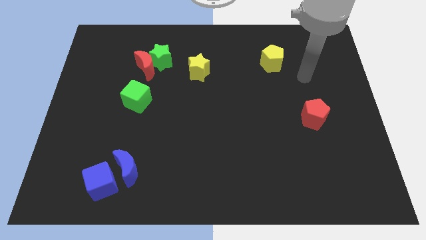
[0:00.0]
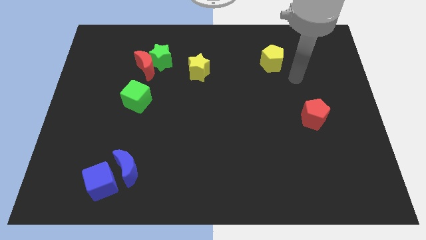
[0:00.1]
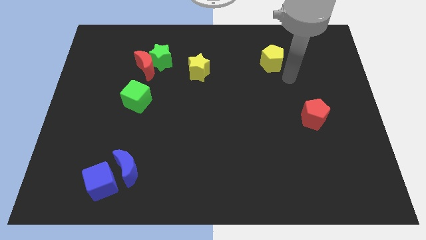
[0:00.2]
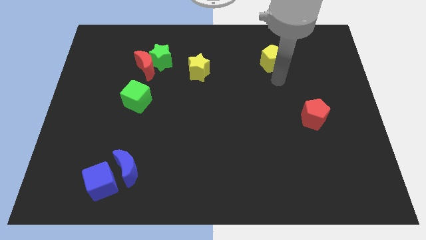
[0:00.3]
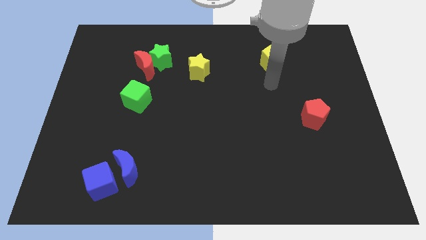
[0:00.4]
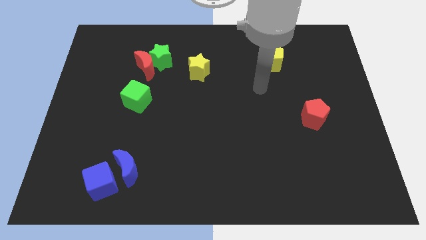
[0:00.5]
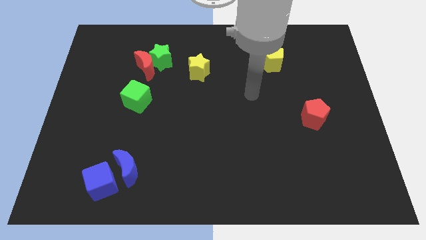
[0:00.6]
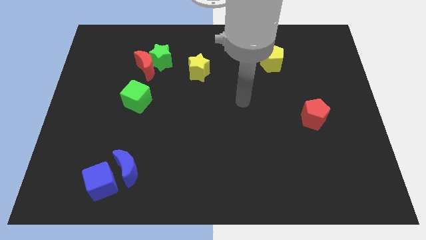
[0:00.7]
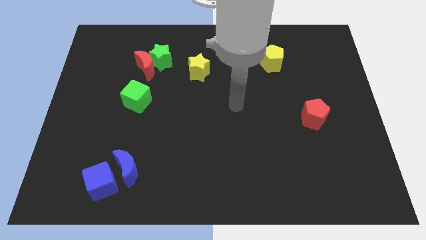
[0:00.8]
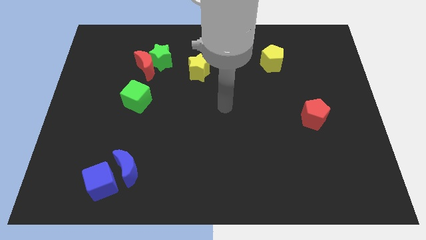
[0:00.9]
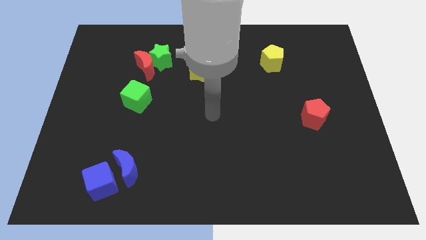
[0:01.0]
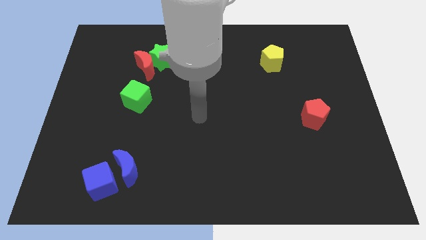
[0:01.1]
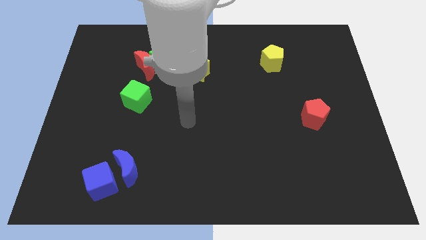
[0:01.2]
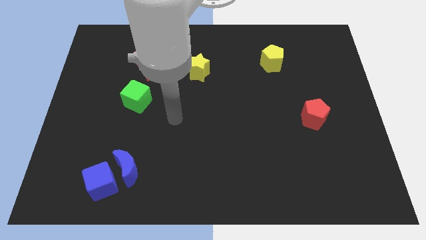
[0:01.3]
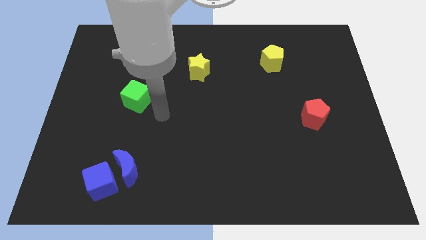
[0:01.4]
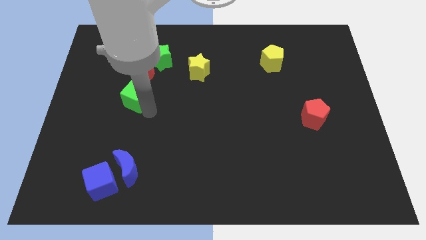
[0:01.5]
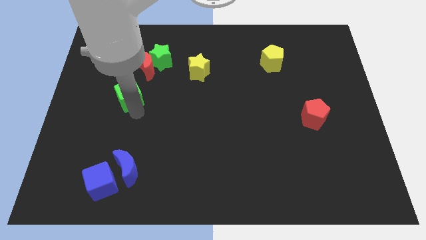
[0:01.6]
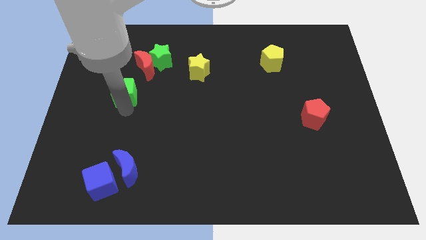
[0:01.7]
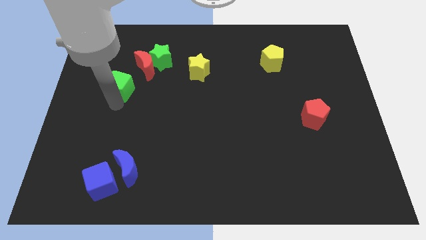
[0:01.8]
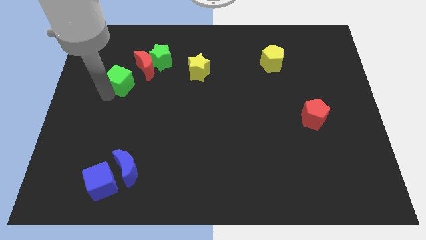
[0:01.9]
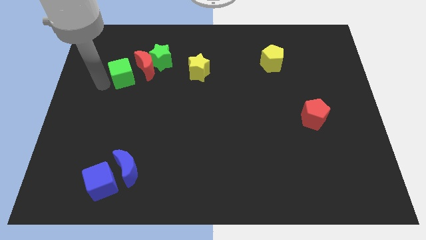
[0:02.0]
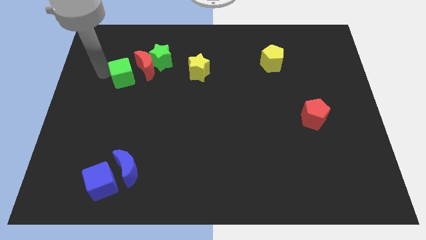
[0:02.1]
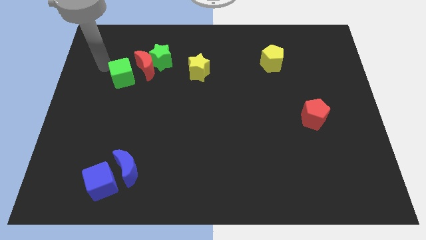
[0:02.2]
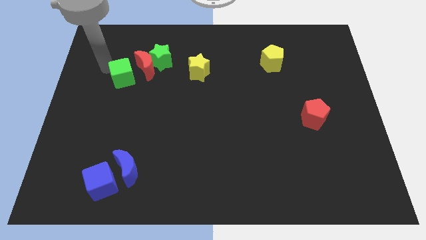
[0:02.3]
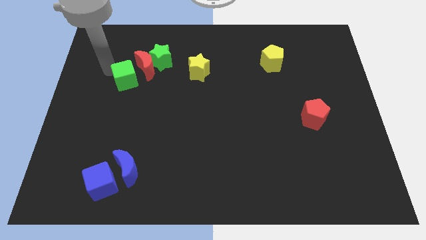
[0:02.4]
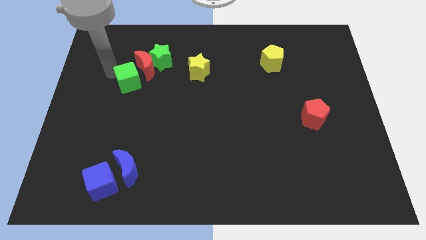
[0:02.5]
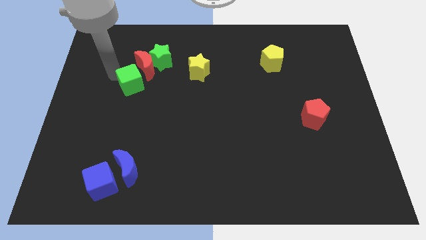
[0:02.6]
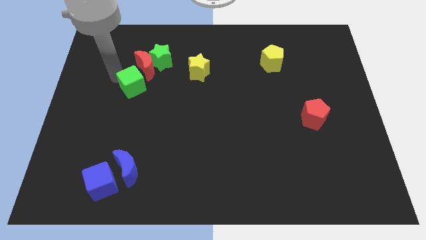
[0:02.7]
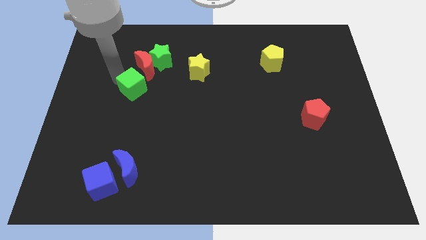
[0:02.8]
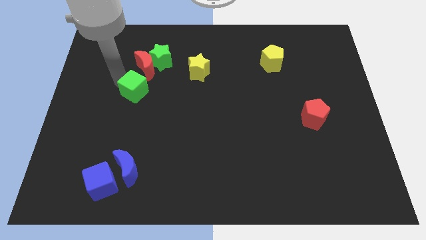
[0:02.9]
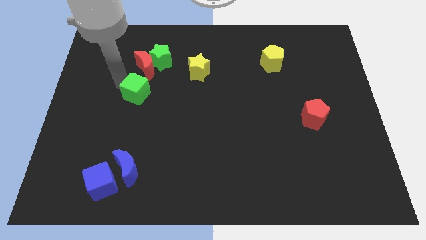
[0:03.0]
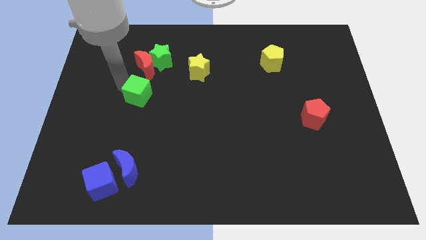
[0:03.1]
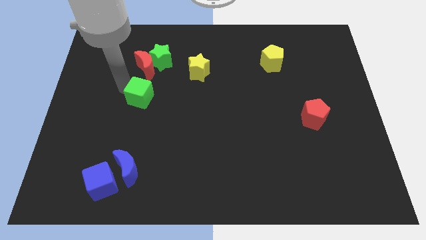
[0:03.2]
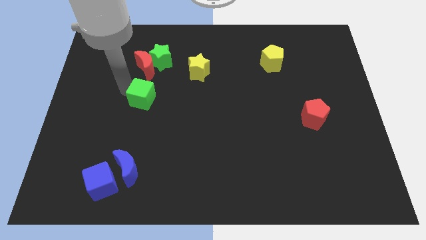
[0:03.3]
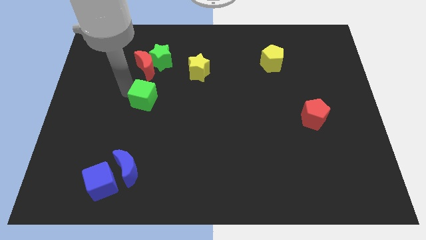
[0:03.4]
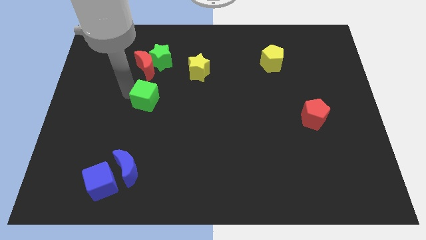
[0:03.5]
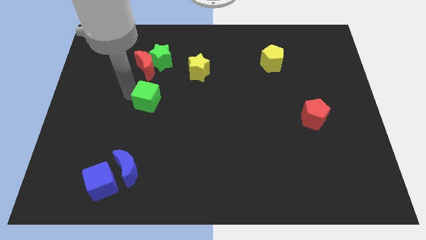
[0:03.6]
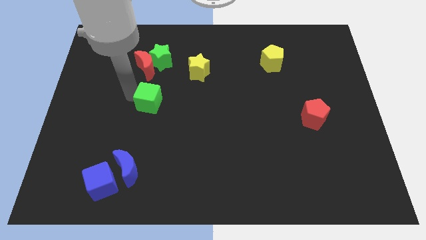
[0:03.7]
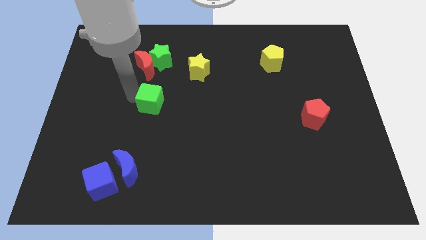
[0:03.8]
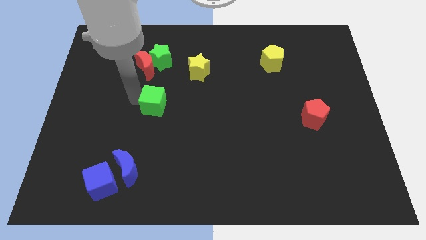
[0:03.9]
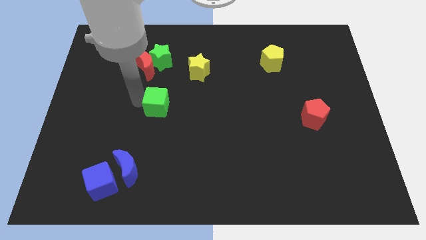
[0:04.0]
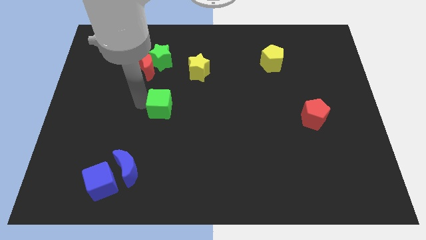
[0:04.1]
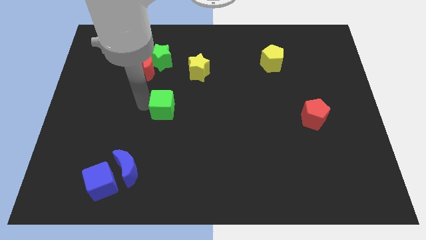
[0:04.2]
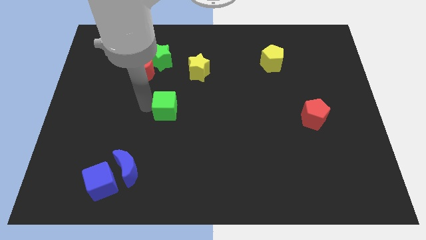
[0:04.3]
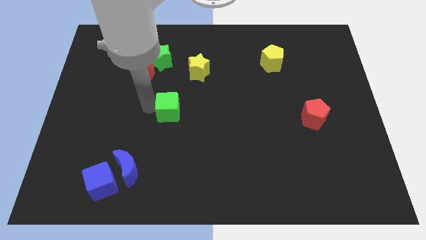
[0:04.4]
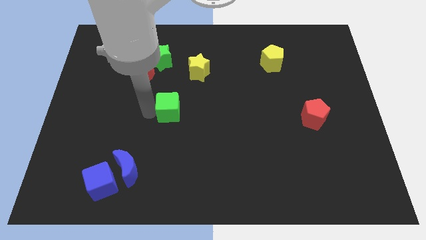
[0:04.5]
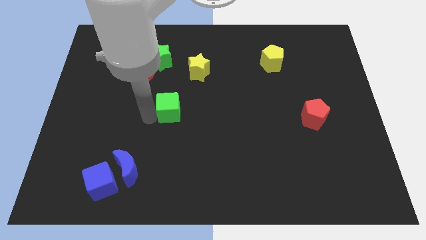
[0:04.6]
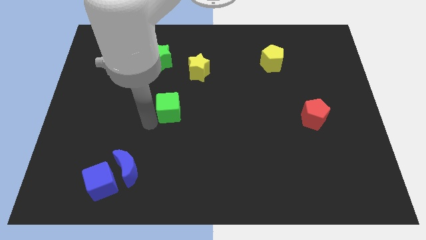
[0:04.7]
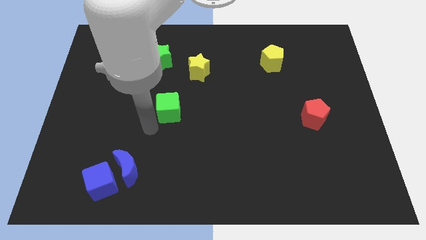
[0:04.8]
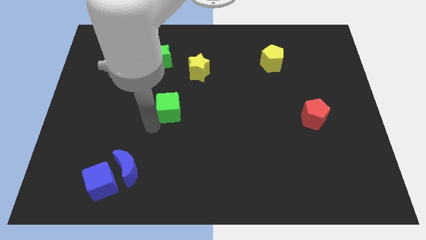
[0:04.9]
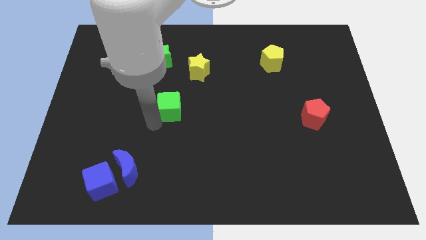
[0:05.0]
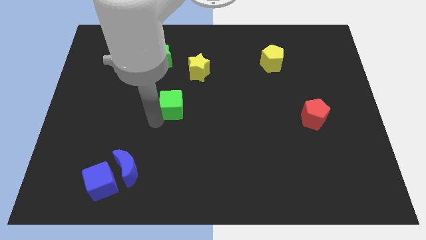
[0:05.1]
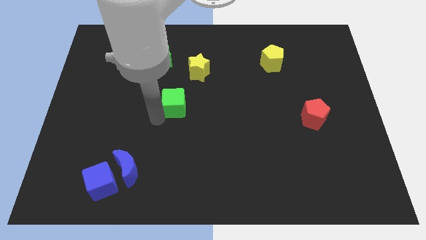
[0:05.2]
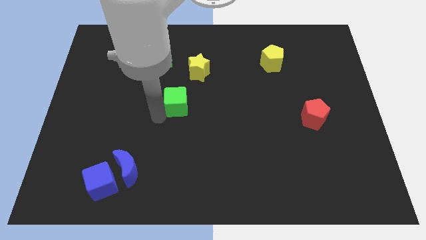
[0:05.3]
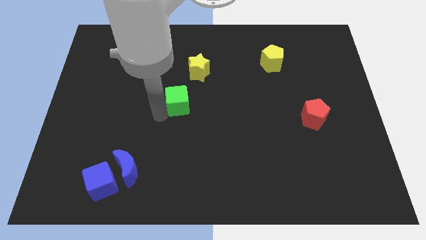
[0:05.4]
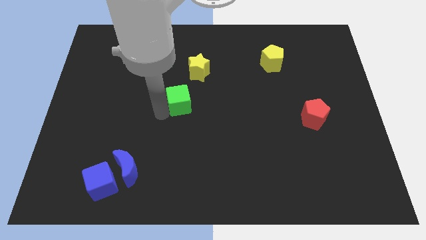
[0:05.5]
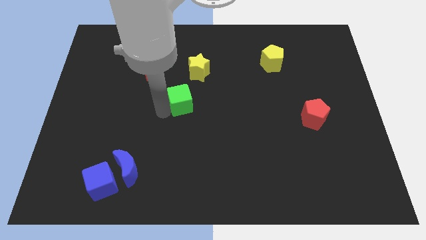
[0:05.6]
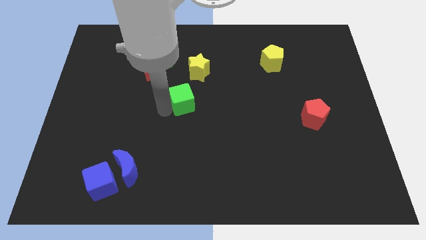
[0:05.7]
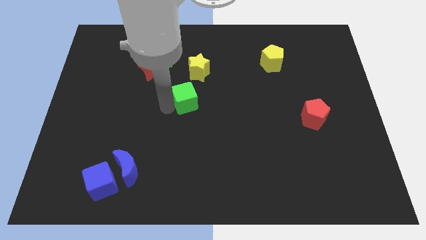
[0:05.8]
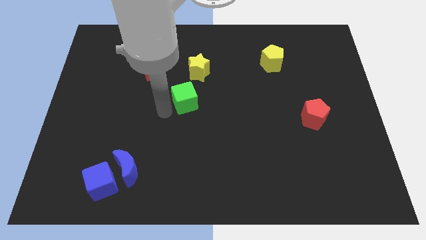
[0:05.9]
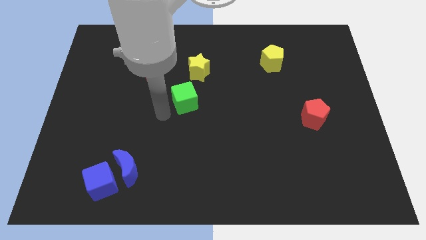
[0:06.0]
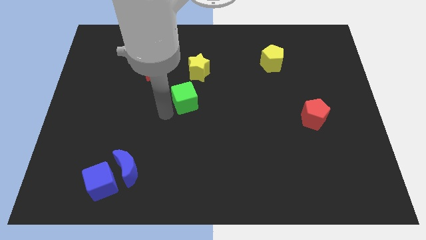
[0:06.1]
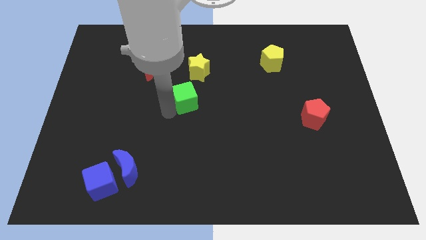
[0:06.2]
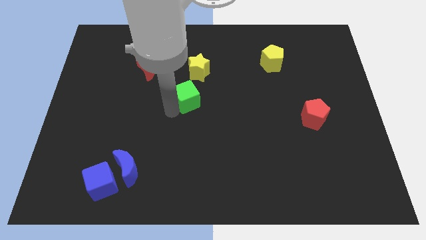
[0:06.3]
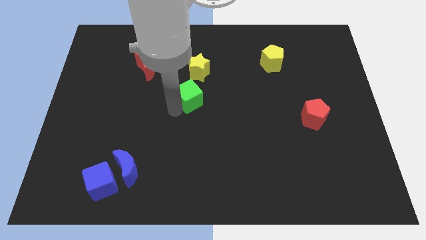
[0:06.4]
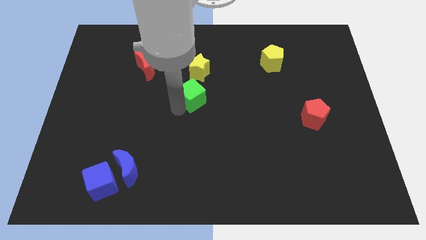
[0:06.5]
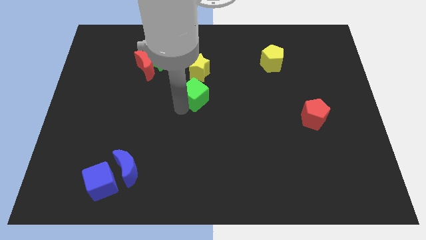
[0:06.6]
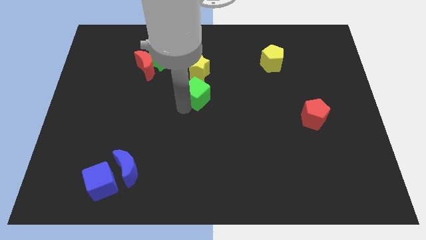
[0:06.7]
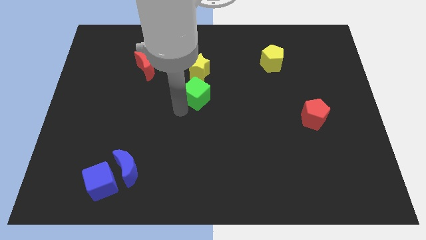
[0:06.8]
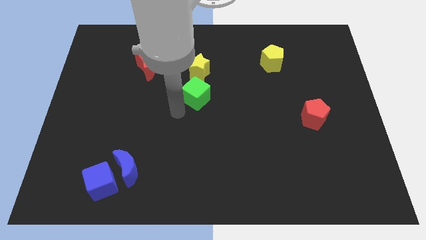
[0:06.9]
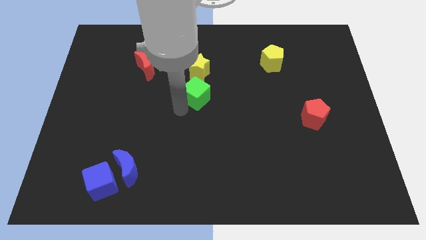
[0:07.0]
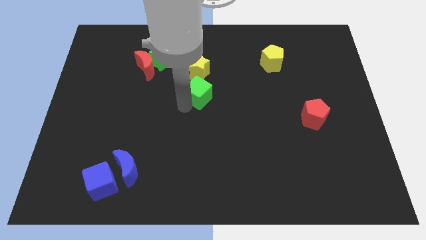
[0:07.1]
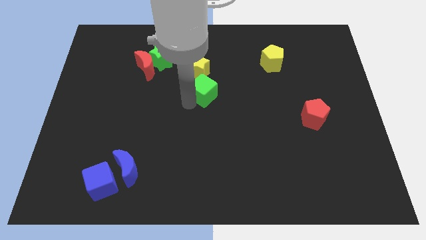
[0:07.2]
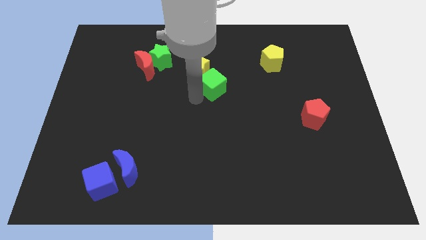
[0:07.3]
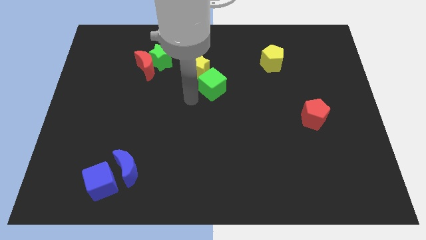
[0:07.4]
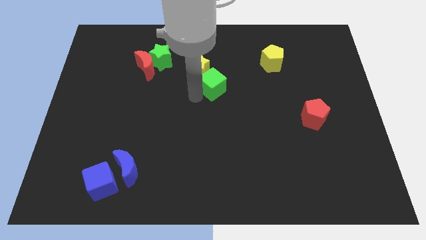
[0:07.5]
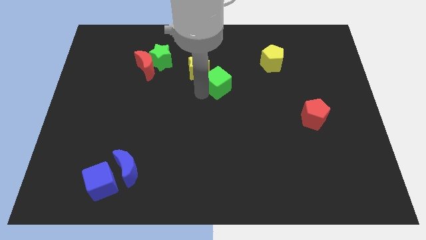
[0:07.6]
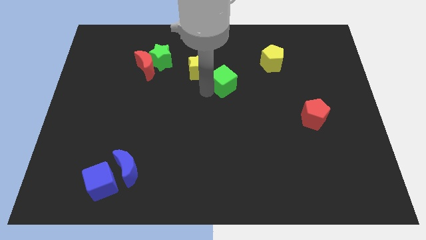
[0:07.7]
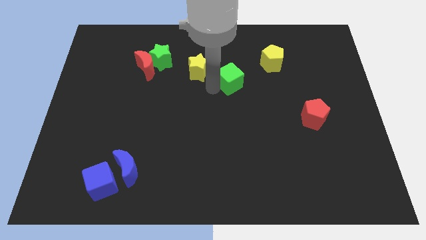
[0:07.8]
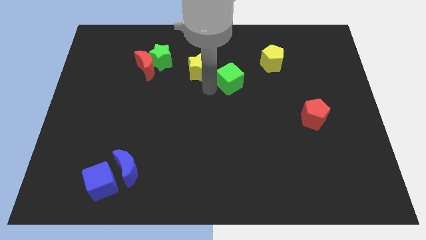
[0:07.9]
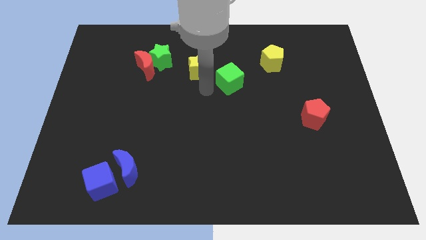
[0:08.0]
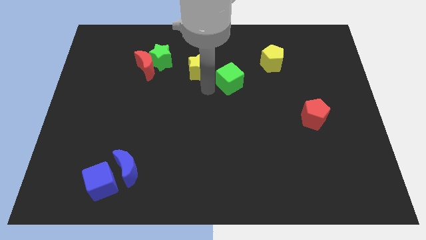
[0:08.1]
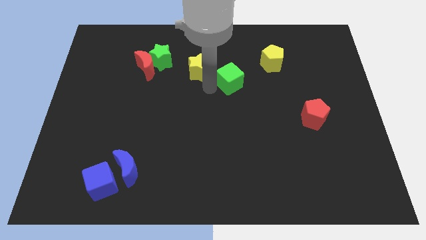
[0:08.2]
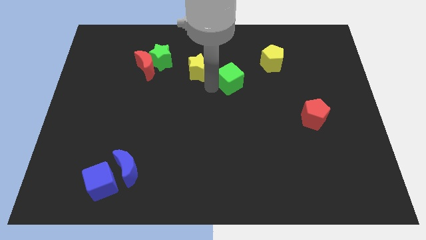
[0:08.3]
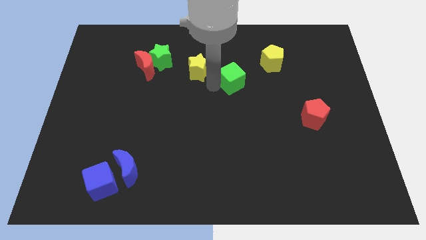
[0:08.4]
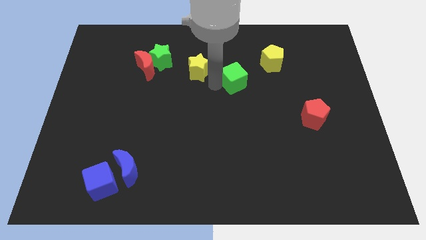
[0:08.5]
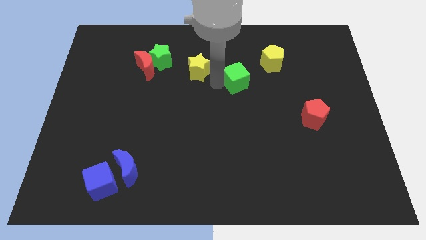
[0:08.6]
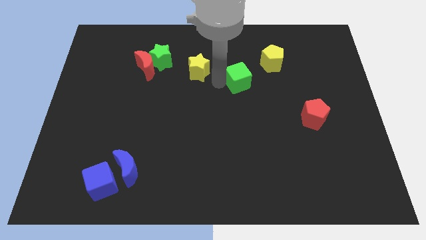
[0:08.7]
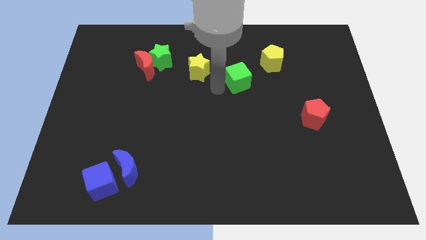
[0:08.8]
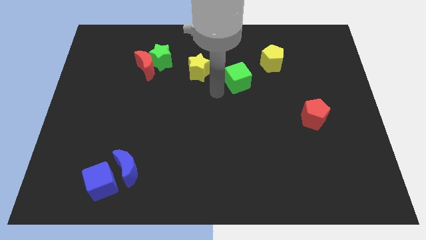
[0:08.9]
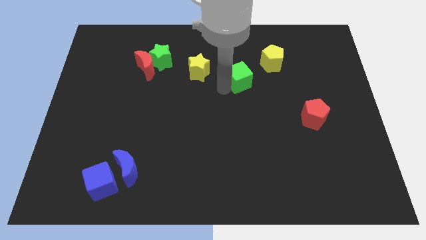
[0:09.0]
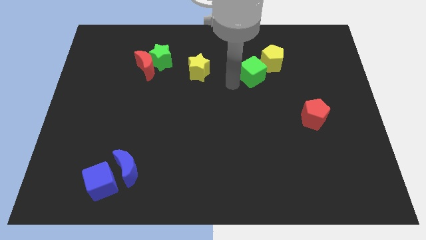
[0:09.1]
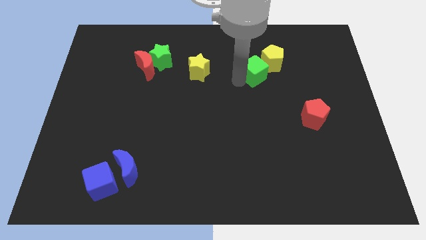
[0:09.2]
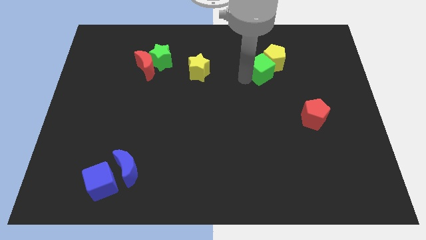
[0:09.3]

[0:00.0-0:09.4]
put the green cube close to the yellow pentagon
